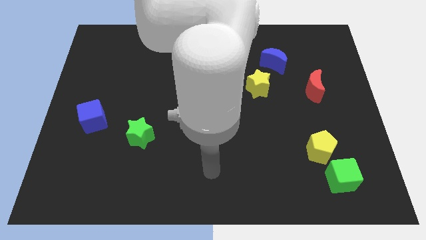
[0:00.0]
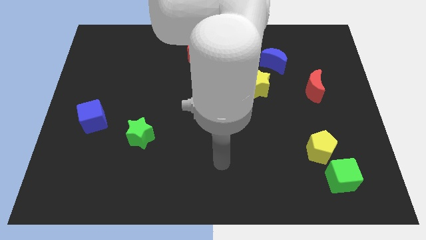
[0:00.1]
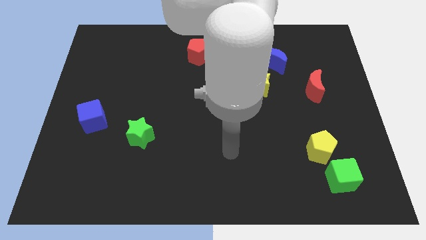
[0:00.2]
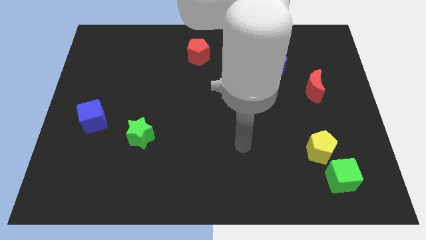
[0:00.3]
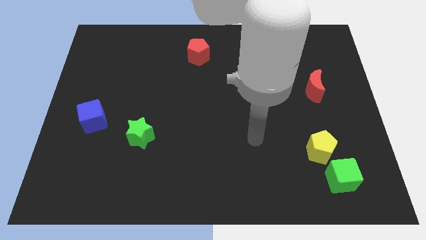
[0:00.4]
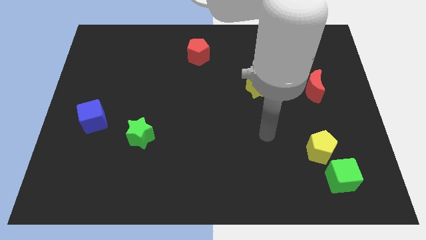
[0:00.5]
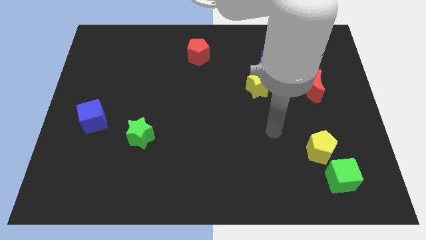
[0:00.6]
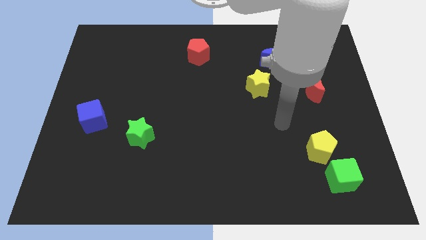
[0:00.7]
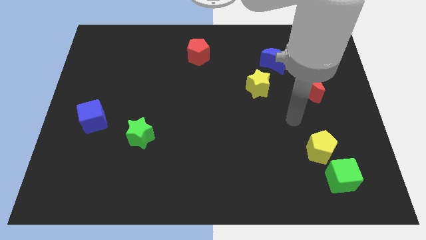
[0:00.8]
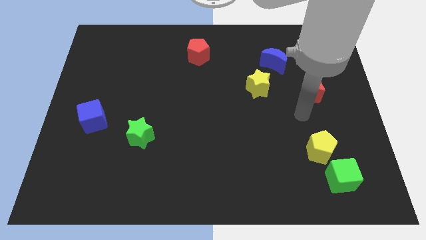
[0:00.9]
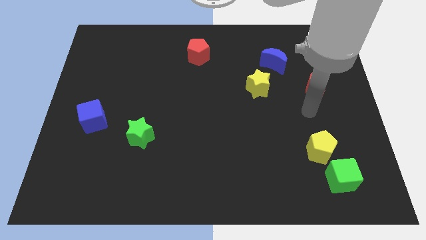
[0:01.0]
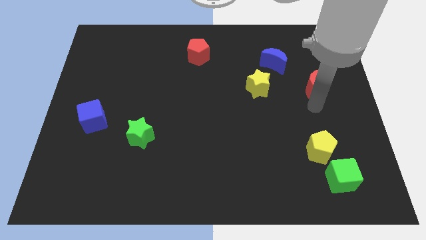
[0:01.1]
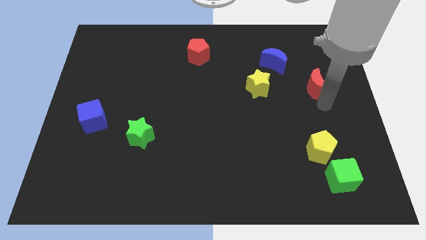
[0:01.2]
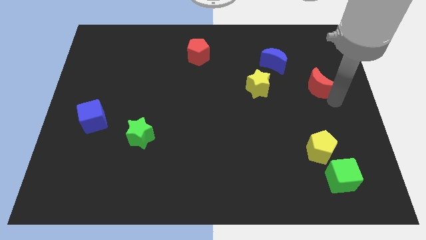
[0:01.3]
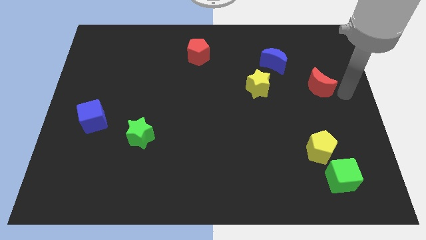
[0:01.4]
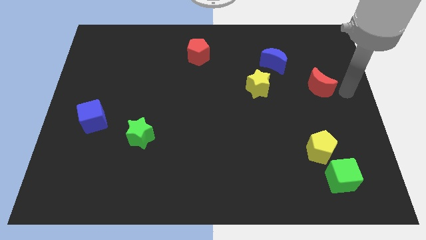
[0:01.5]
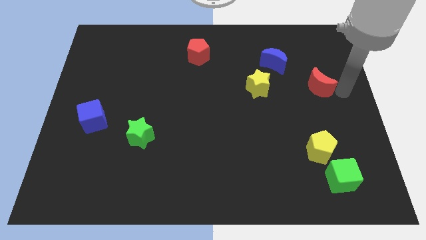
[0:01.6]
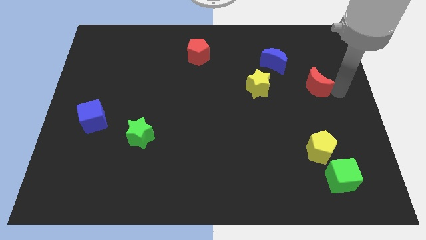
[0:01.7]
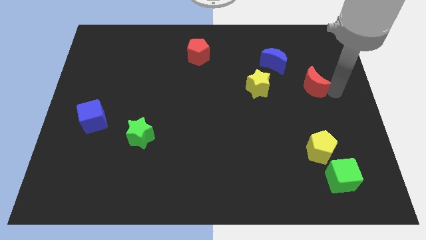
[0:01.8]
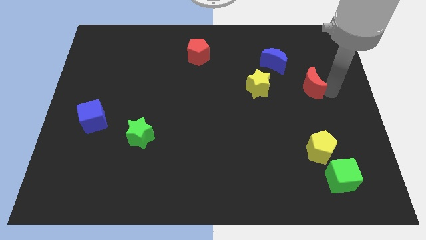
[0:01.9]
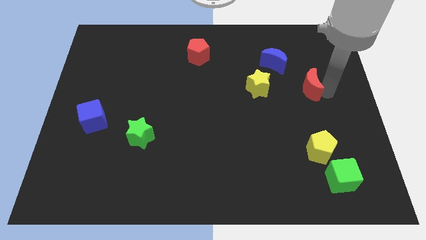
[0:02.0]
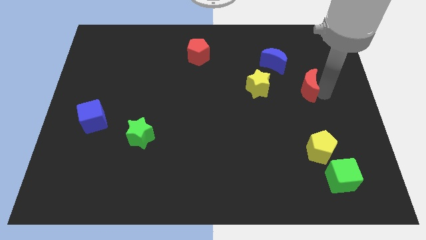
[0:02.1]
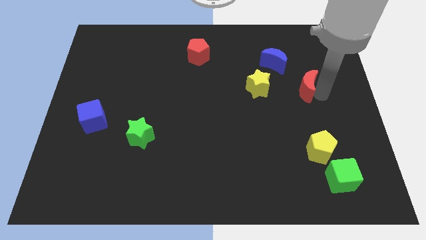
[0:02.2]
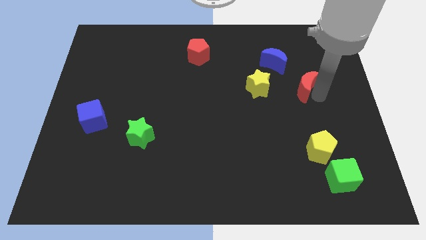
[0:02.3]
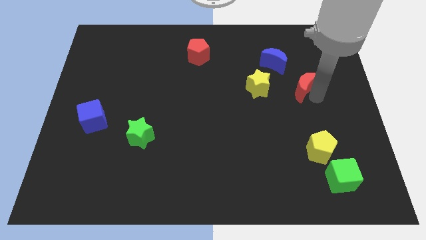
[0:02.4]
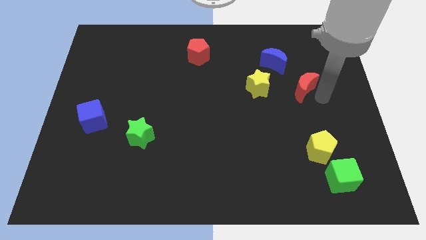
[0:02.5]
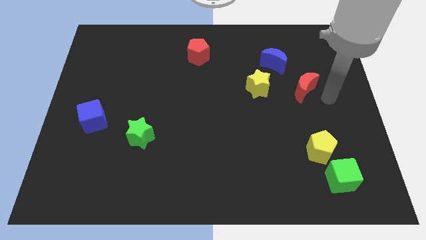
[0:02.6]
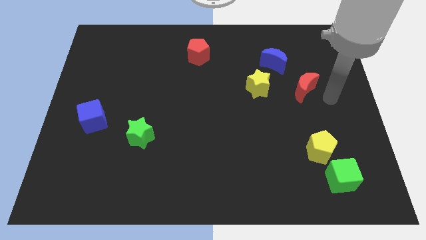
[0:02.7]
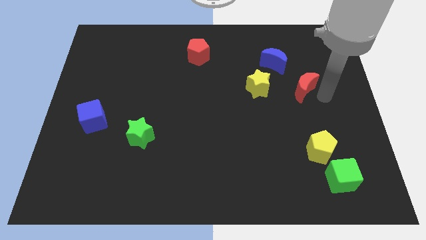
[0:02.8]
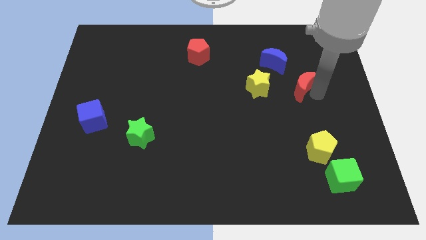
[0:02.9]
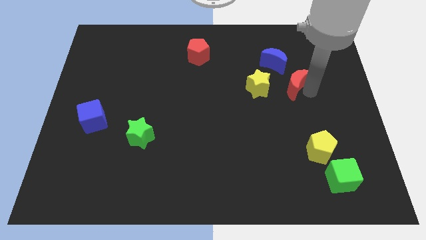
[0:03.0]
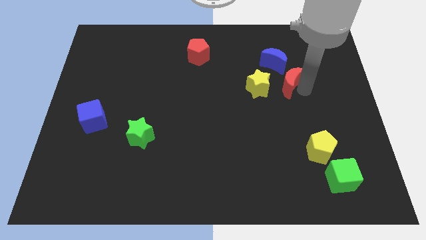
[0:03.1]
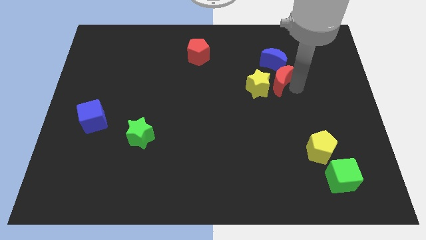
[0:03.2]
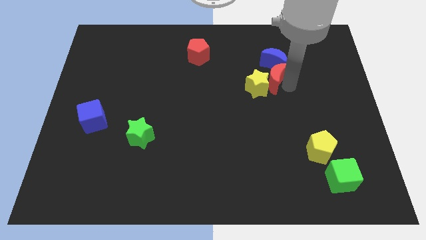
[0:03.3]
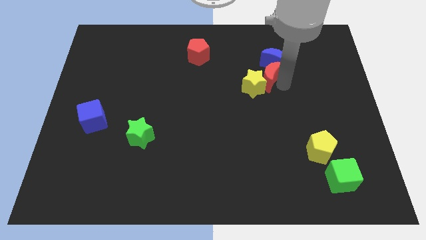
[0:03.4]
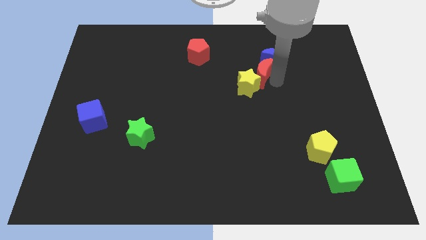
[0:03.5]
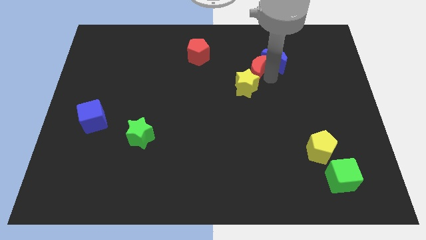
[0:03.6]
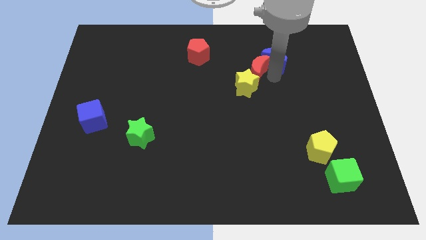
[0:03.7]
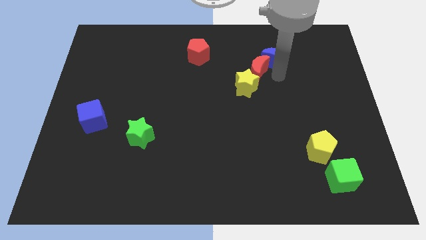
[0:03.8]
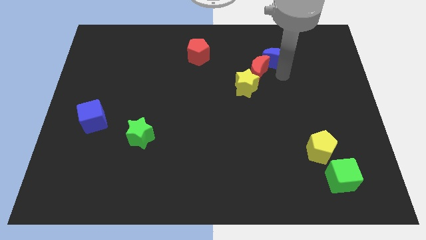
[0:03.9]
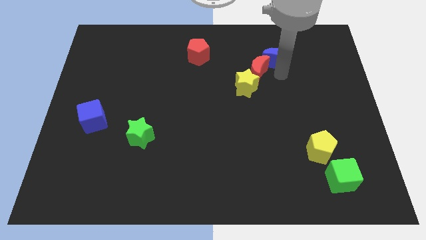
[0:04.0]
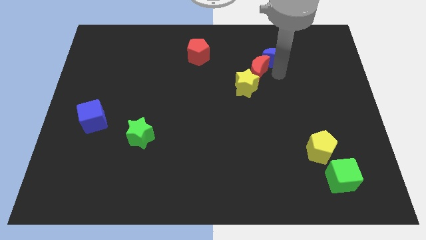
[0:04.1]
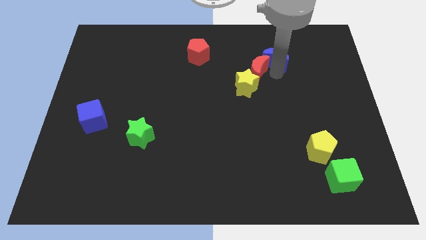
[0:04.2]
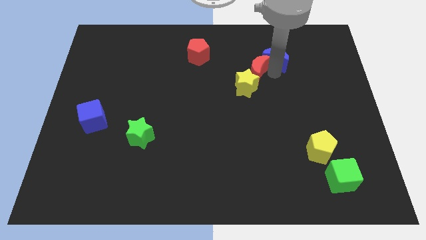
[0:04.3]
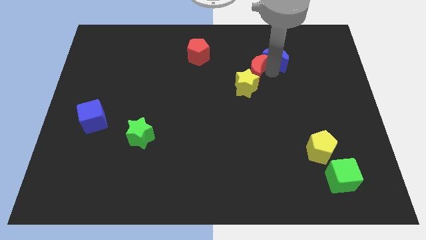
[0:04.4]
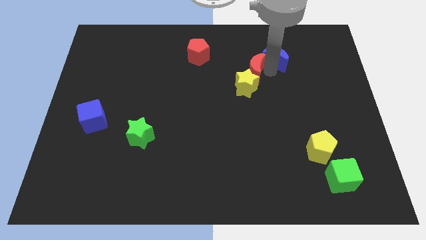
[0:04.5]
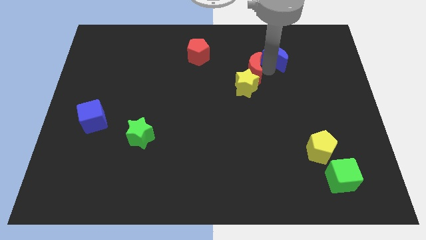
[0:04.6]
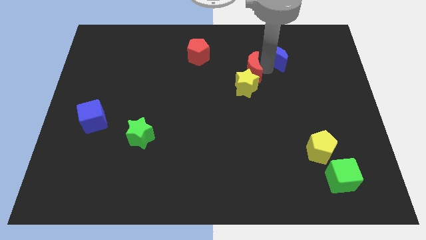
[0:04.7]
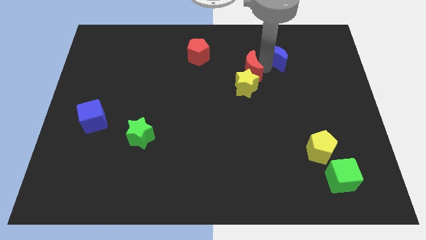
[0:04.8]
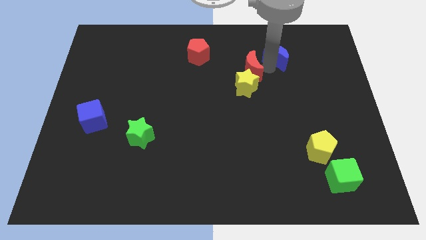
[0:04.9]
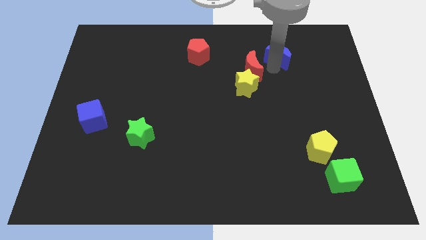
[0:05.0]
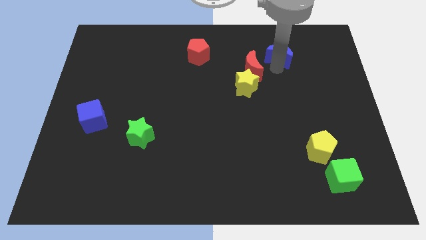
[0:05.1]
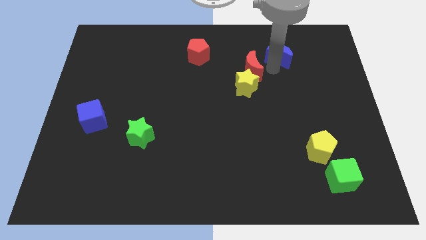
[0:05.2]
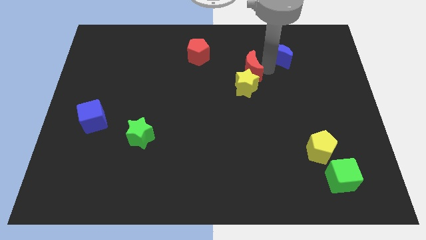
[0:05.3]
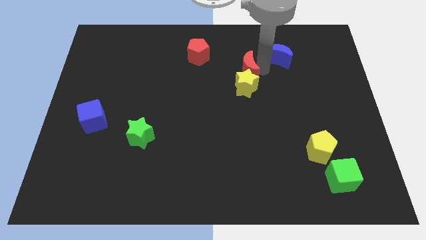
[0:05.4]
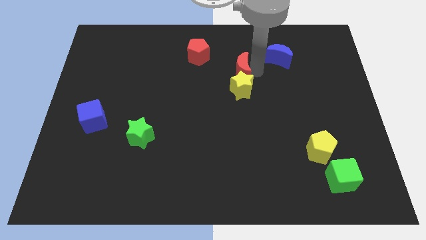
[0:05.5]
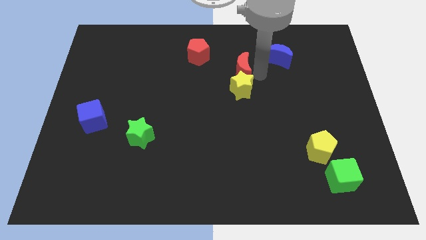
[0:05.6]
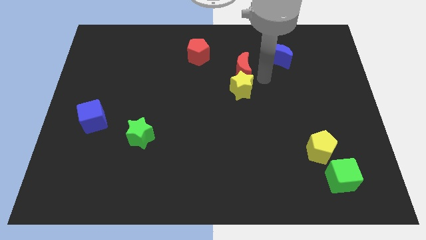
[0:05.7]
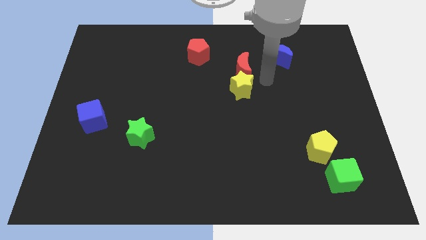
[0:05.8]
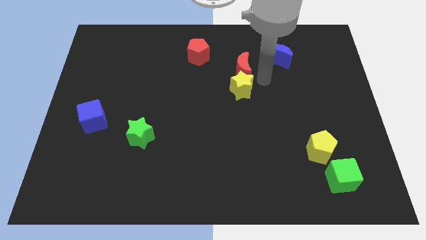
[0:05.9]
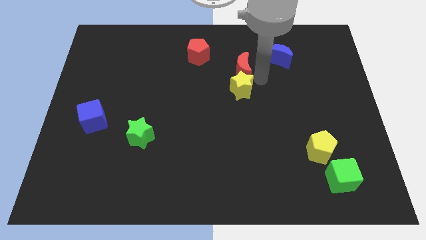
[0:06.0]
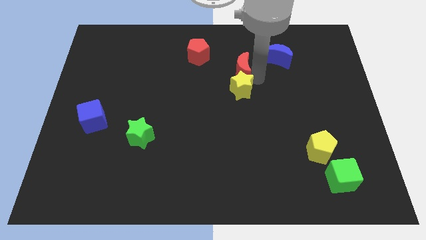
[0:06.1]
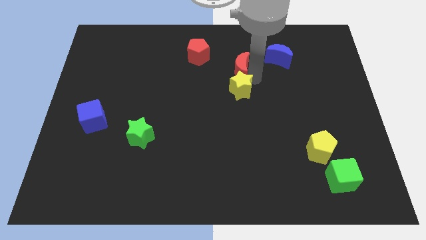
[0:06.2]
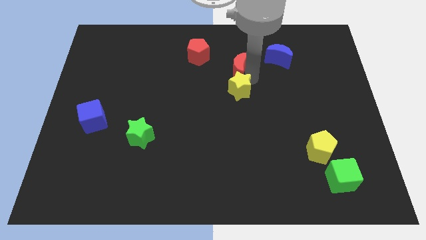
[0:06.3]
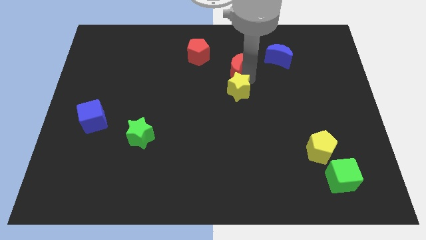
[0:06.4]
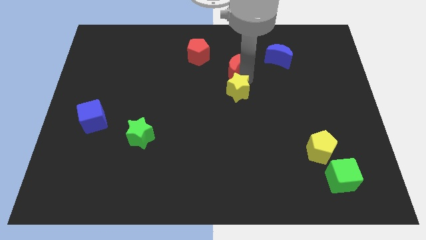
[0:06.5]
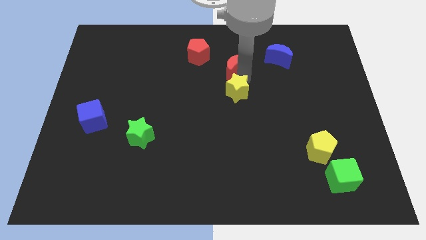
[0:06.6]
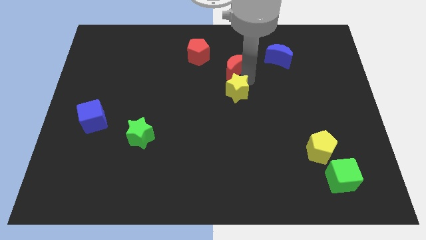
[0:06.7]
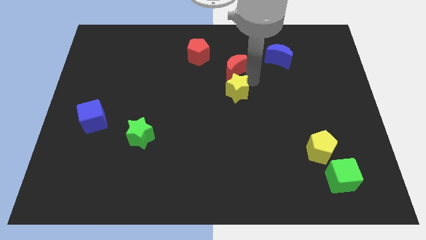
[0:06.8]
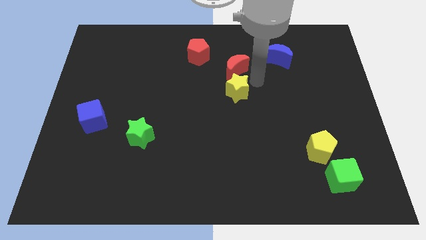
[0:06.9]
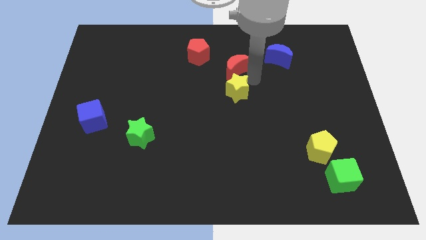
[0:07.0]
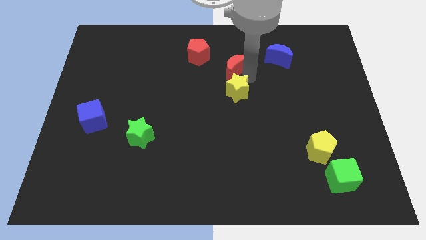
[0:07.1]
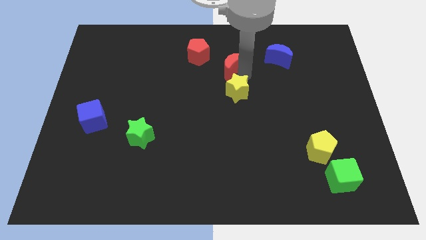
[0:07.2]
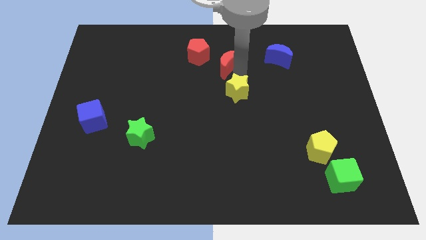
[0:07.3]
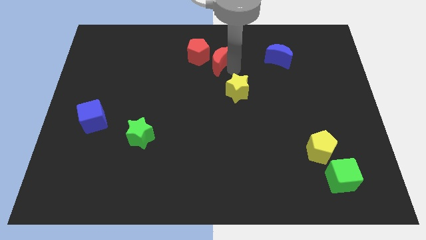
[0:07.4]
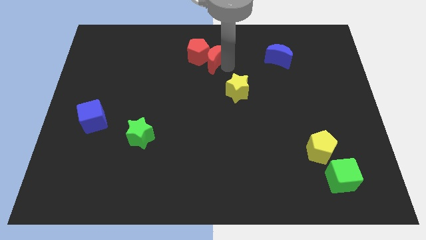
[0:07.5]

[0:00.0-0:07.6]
move the red moon close to the red pentagon
